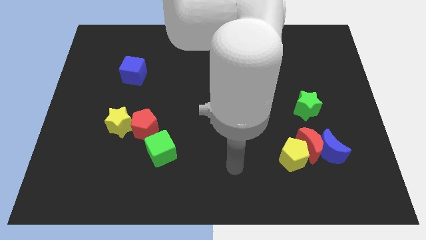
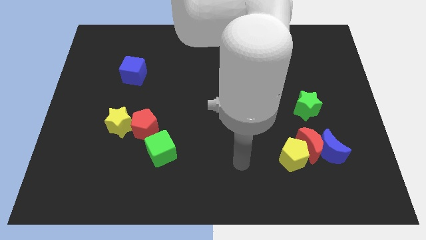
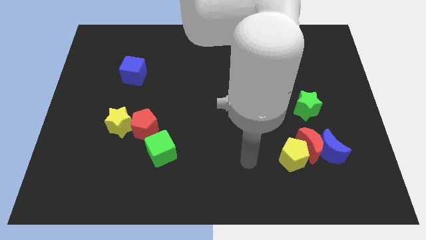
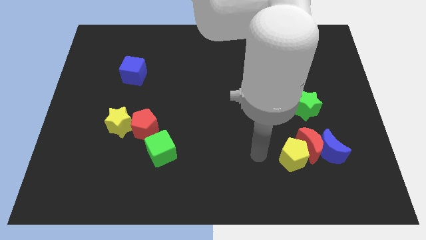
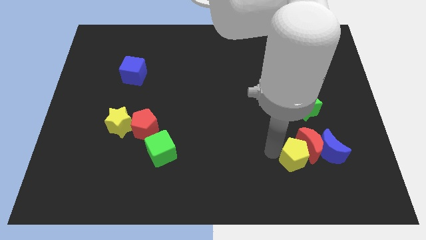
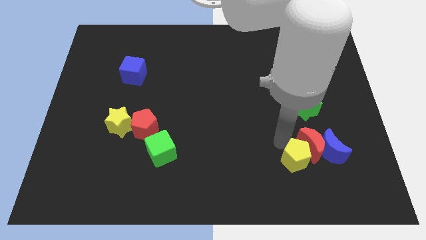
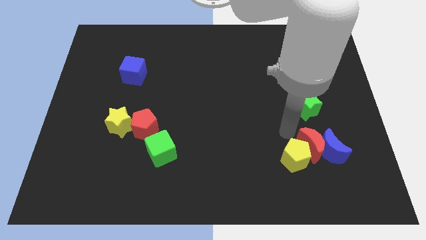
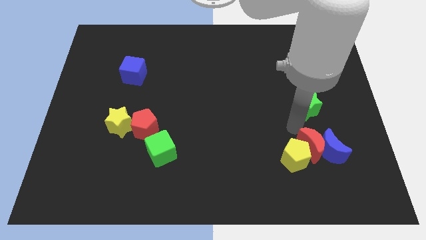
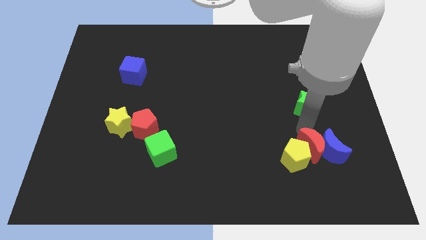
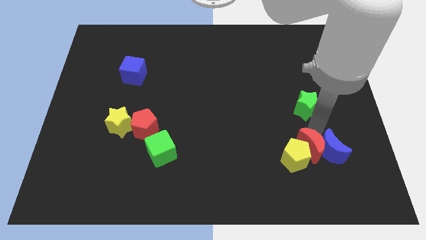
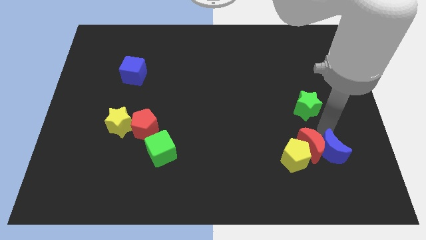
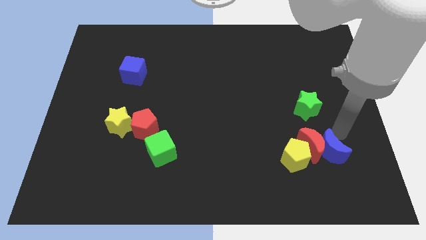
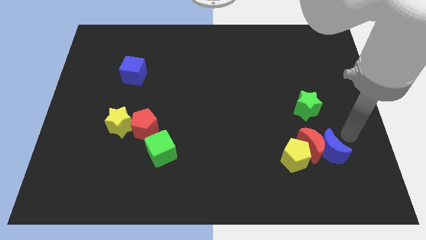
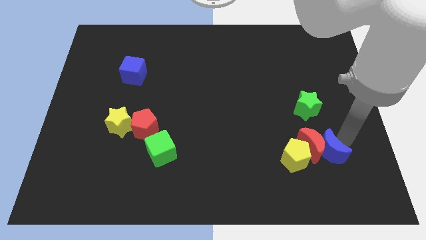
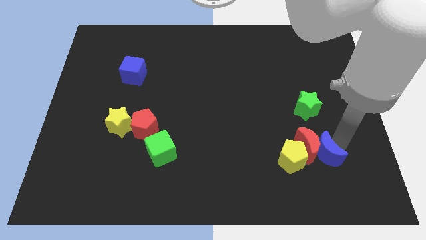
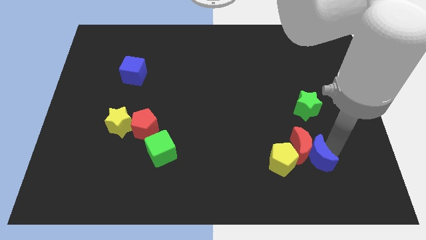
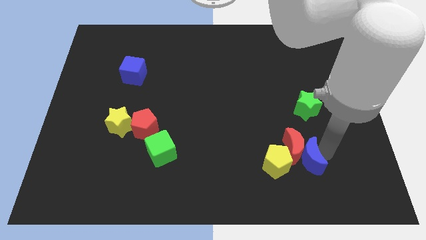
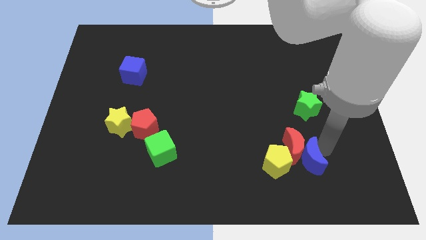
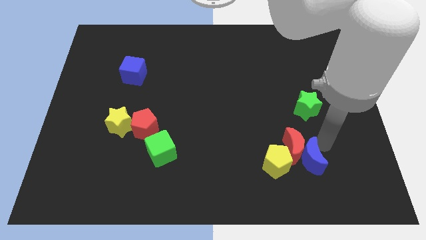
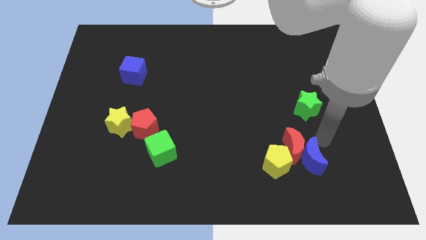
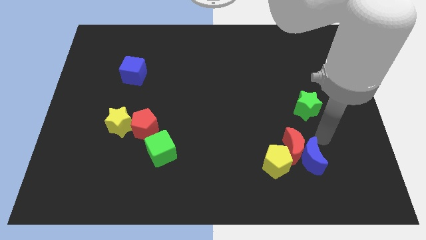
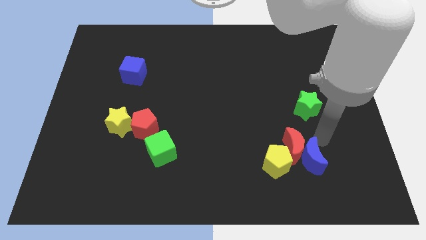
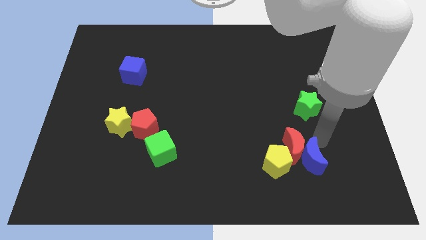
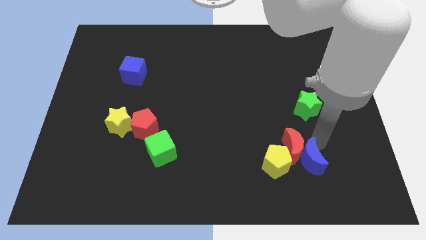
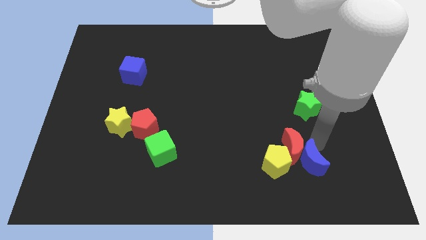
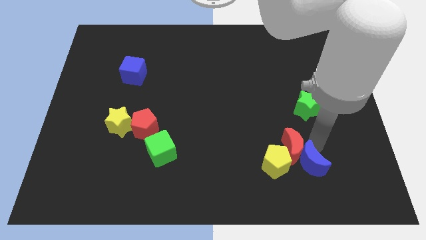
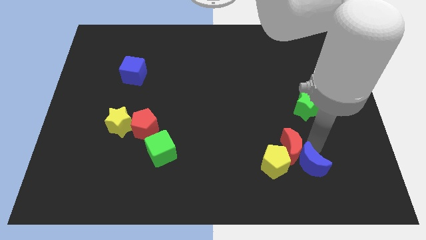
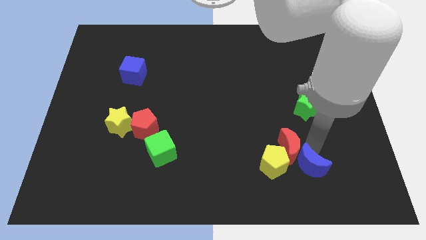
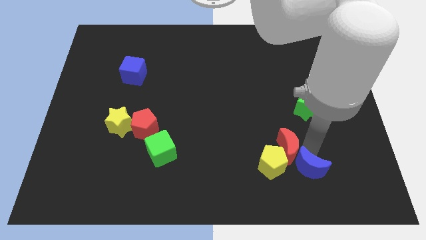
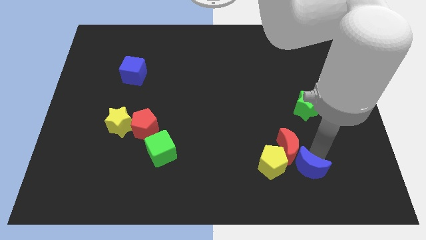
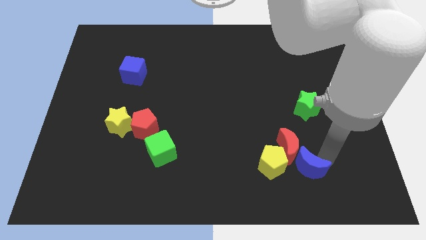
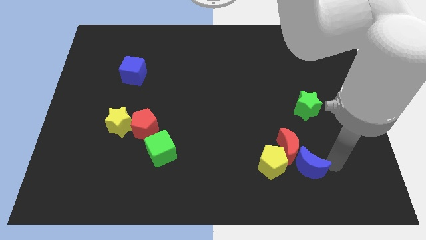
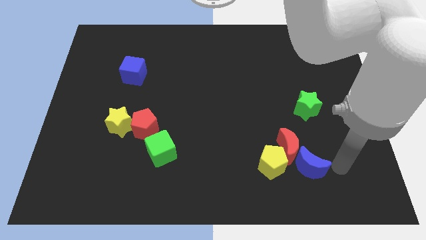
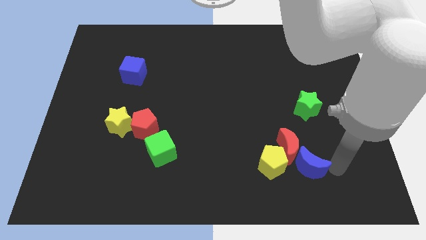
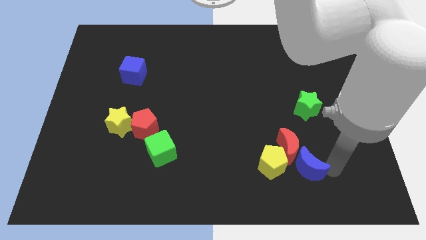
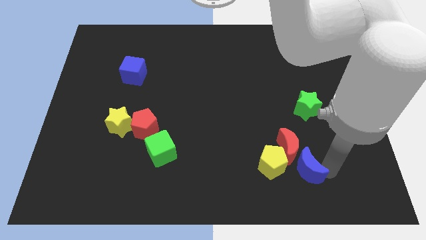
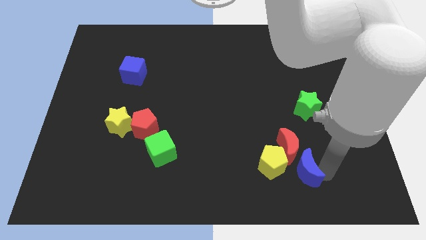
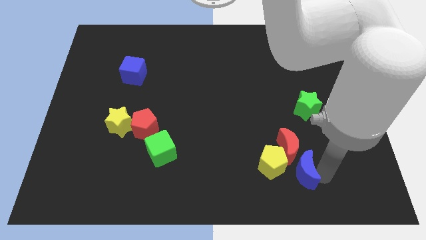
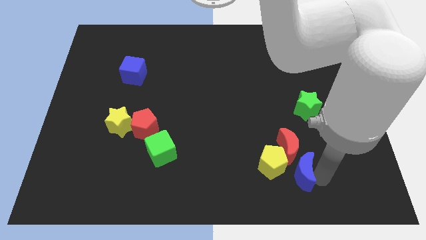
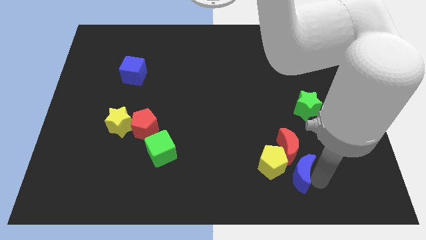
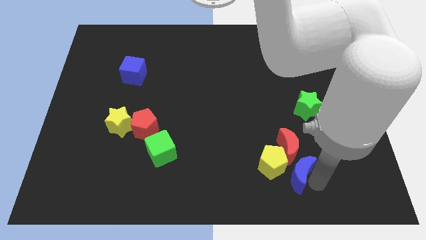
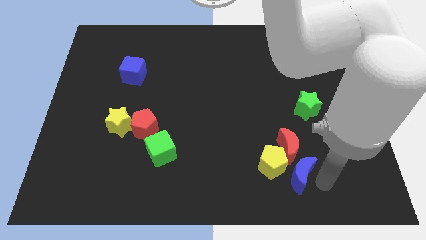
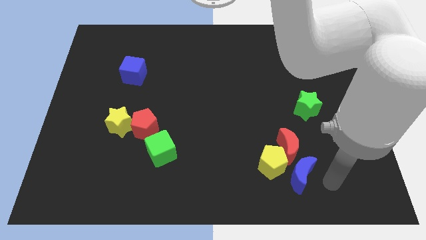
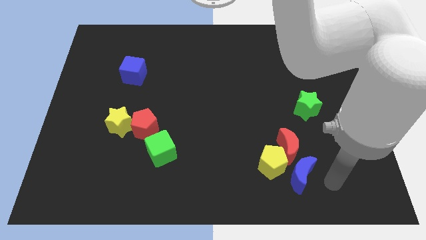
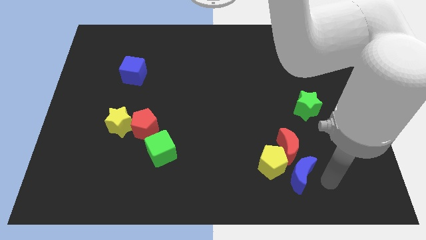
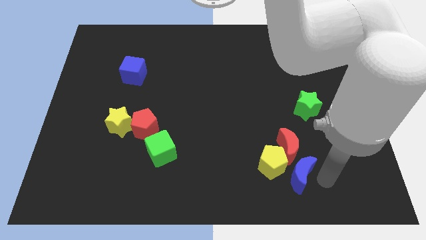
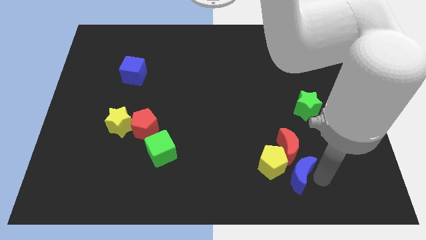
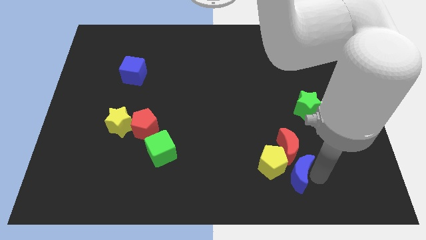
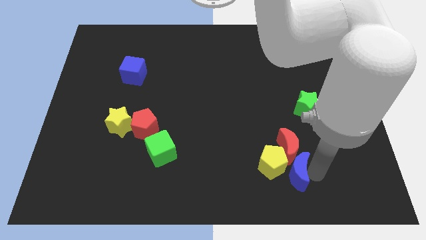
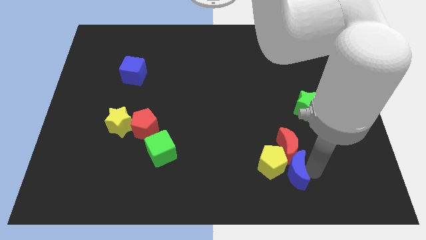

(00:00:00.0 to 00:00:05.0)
slightly slide the blue moon to the left

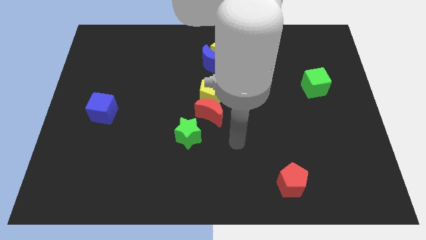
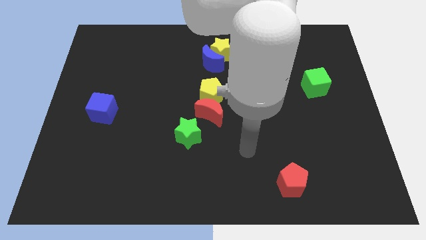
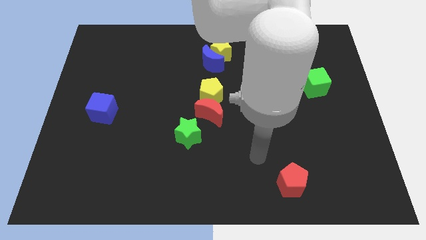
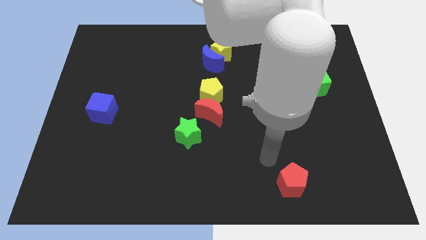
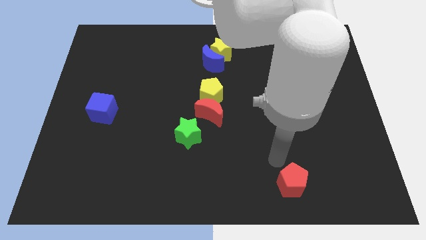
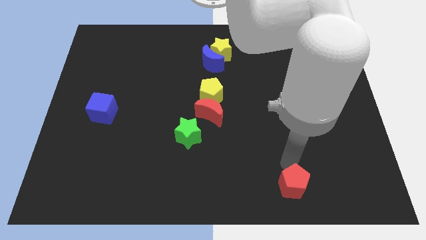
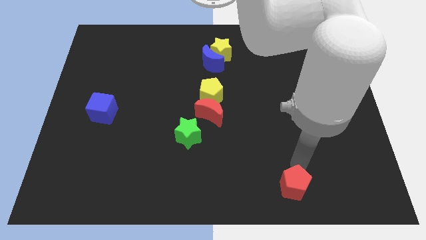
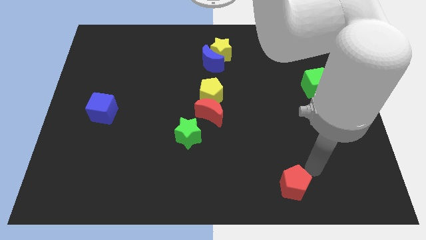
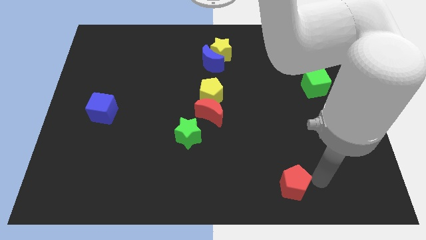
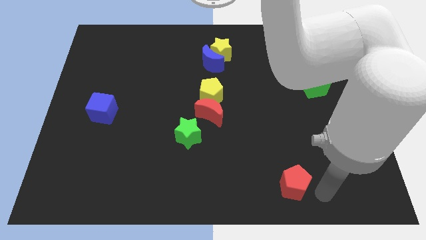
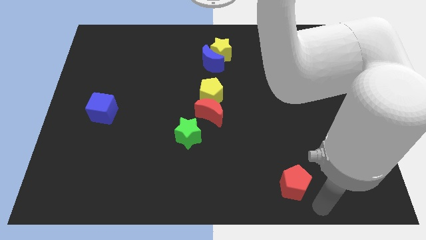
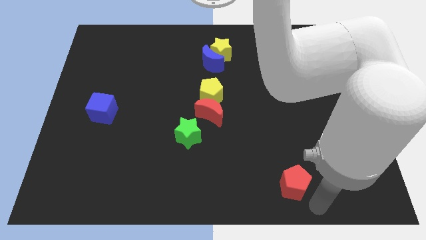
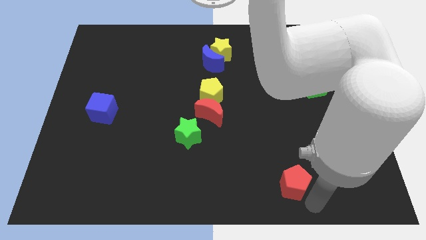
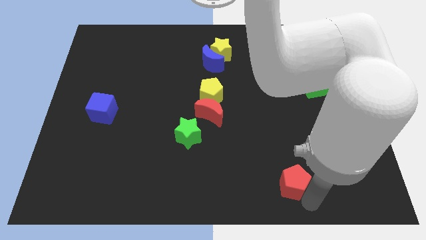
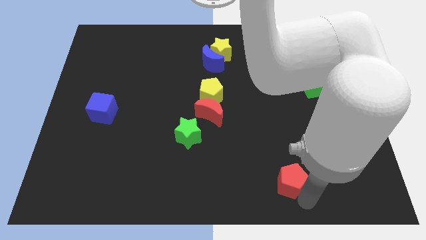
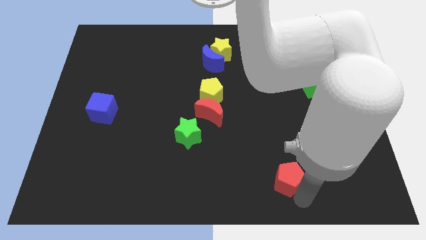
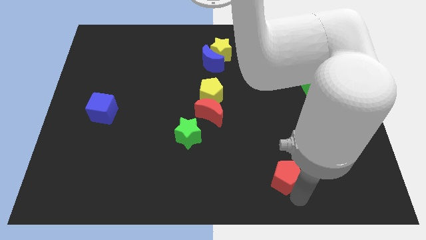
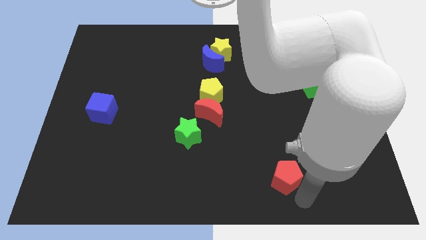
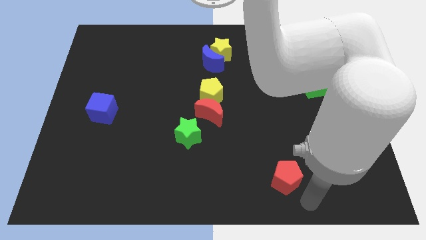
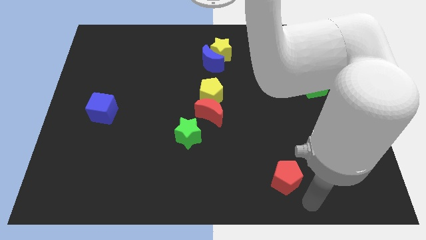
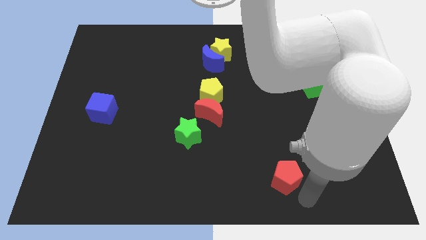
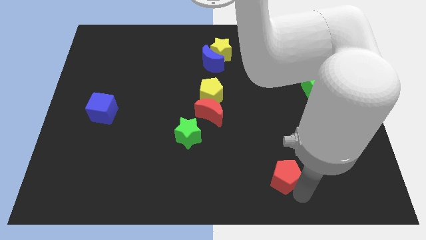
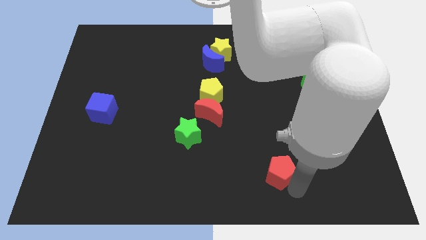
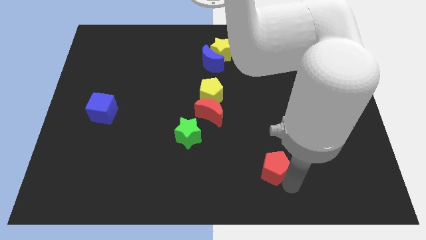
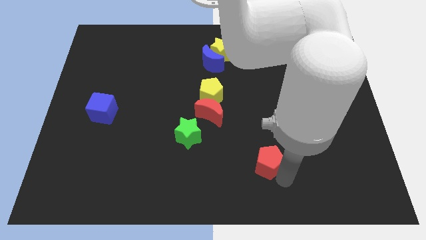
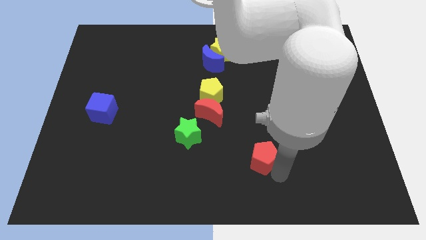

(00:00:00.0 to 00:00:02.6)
push the red pentagon a little bit upwards and then left

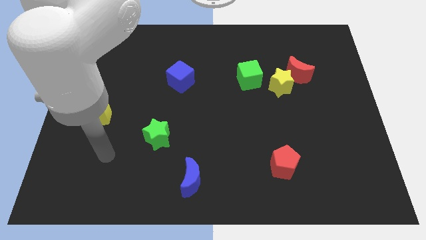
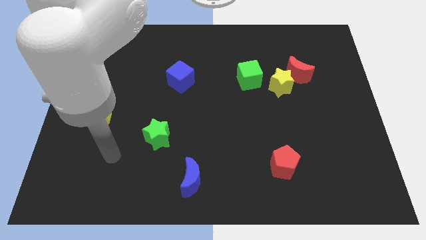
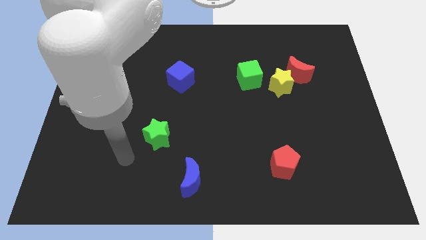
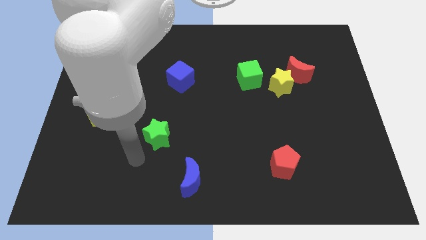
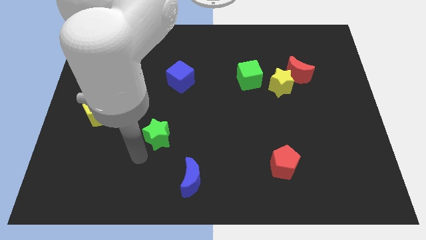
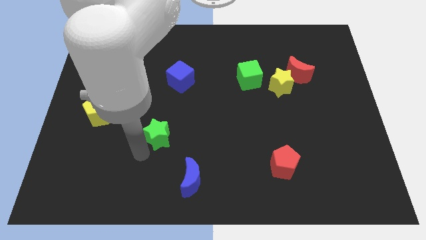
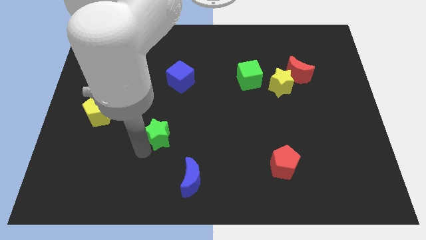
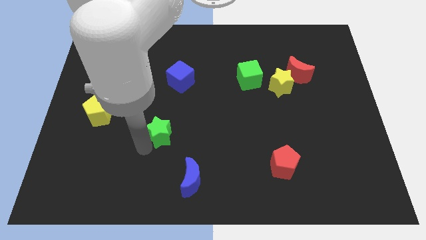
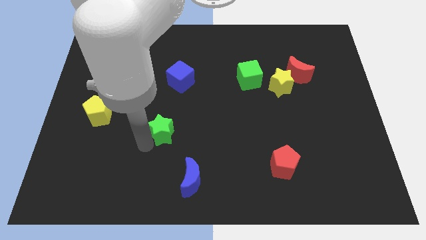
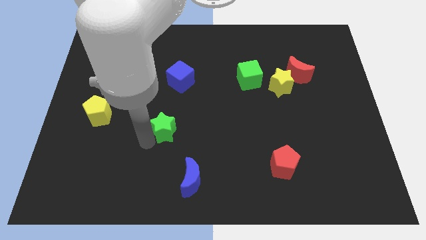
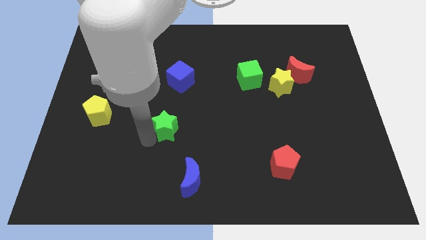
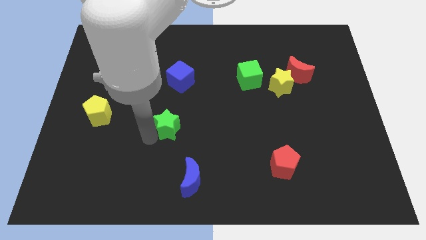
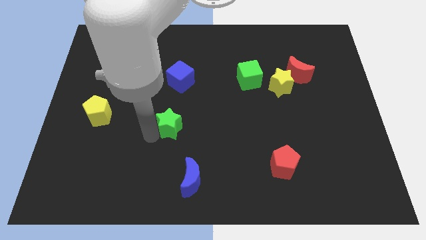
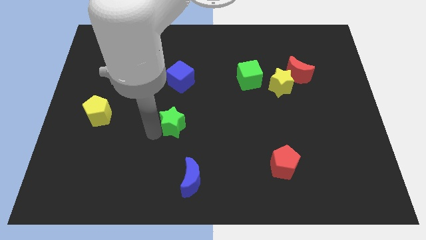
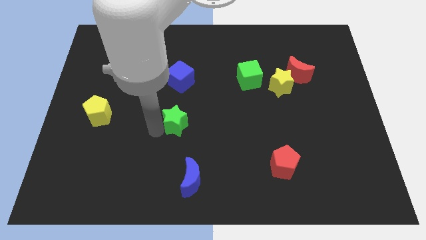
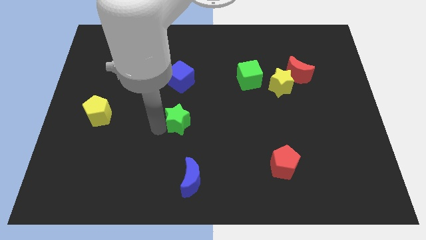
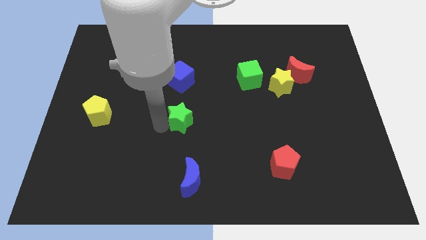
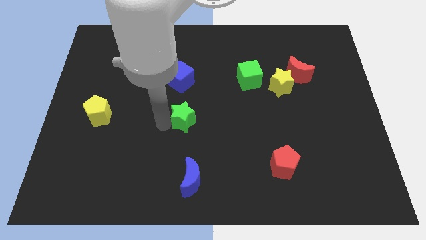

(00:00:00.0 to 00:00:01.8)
slightly slide the green star upwards and then right
